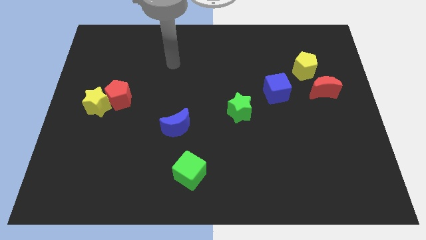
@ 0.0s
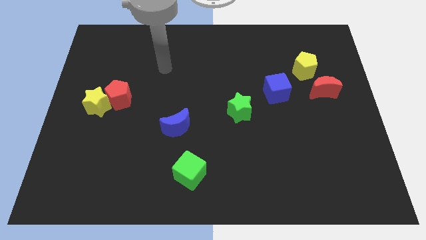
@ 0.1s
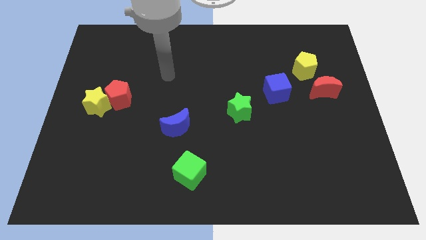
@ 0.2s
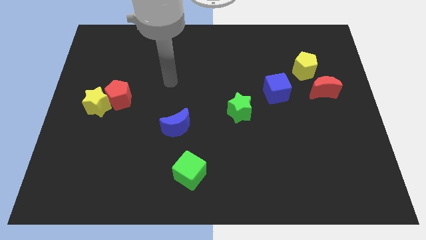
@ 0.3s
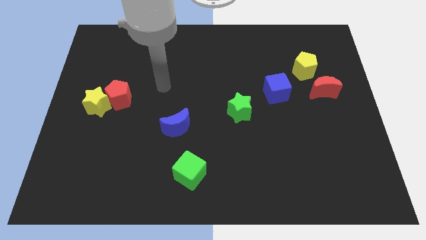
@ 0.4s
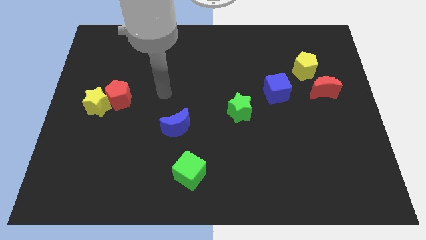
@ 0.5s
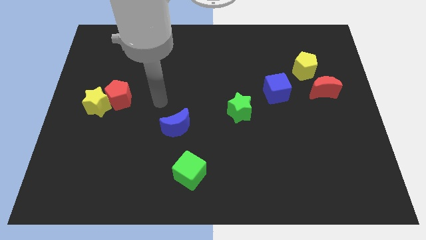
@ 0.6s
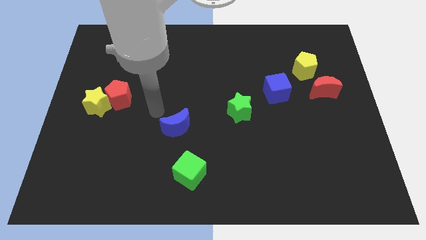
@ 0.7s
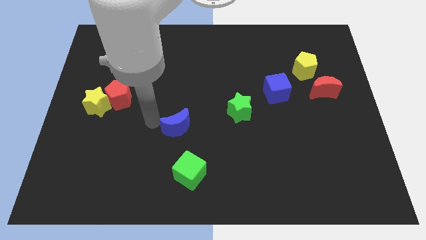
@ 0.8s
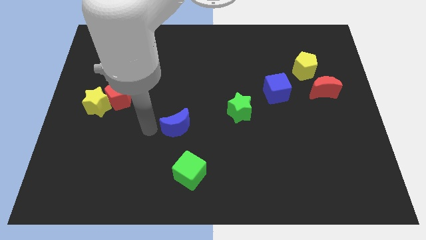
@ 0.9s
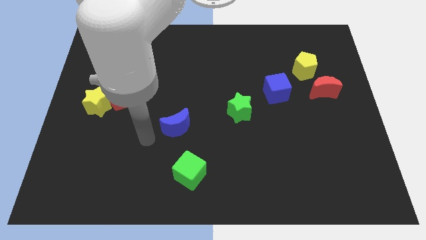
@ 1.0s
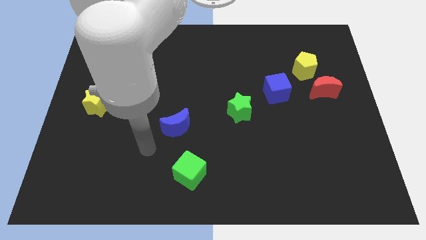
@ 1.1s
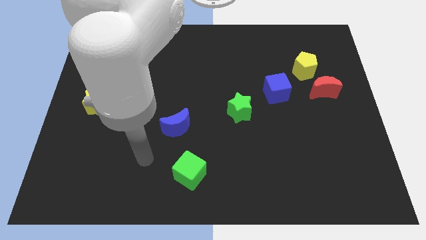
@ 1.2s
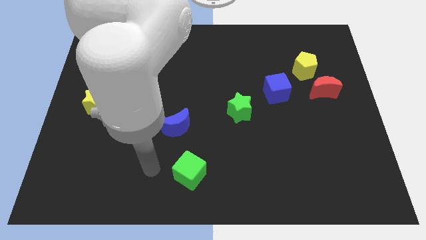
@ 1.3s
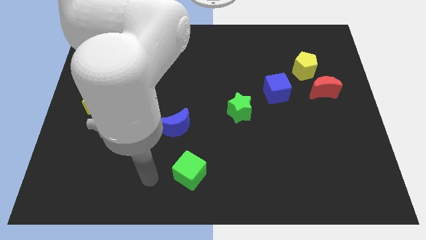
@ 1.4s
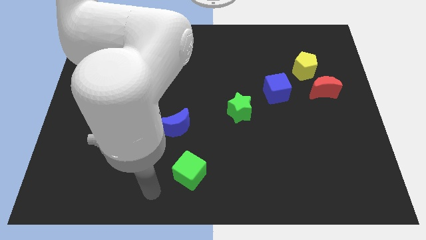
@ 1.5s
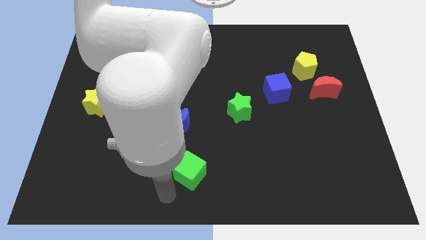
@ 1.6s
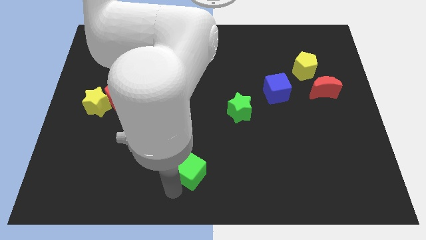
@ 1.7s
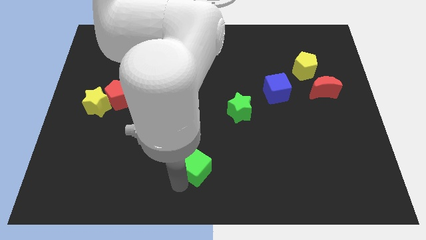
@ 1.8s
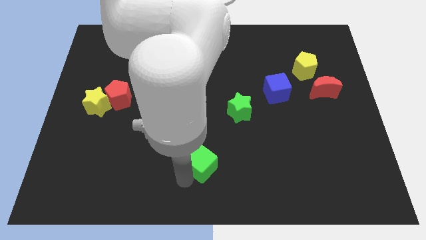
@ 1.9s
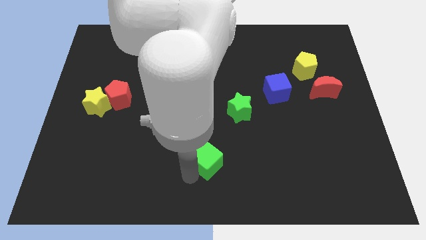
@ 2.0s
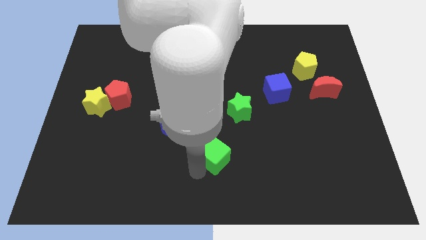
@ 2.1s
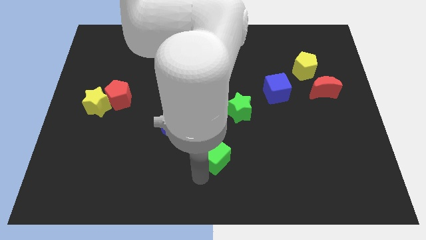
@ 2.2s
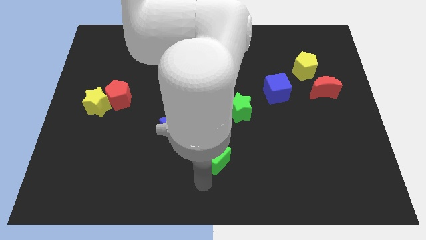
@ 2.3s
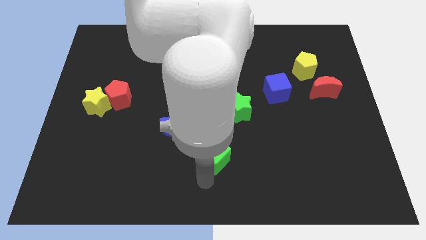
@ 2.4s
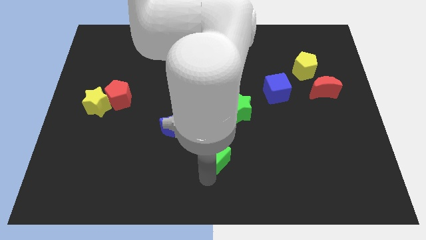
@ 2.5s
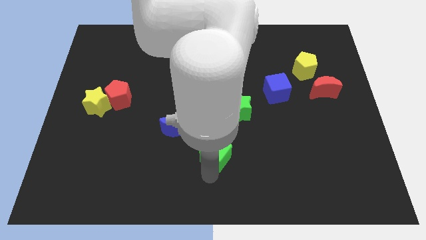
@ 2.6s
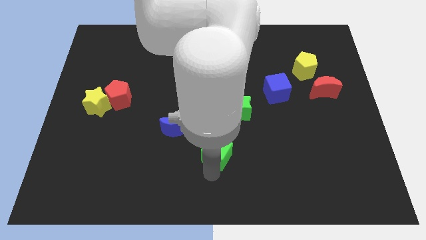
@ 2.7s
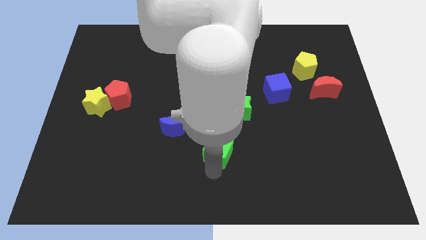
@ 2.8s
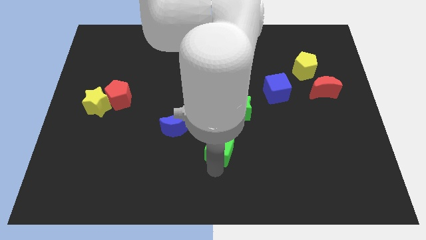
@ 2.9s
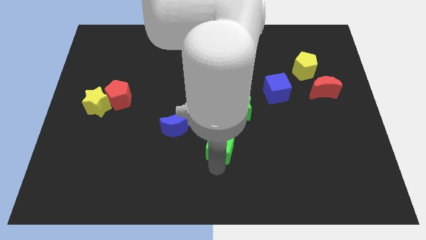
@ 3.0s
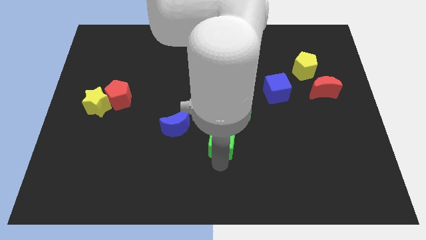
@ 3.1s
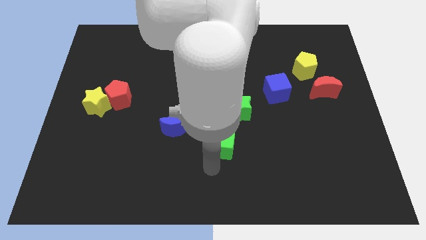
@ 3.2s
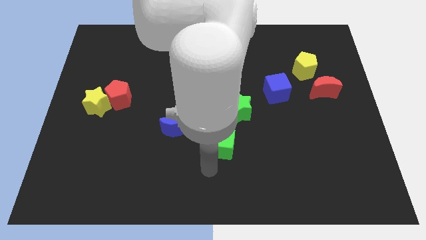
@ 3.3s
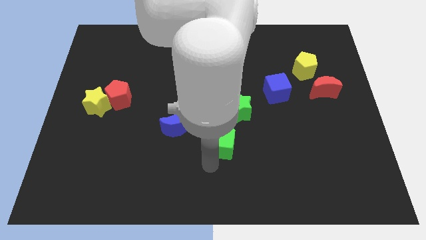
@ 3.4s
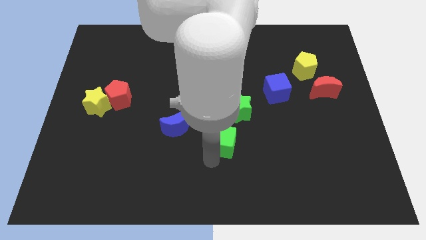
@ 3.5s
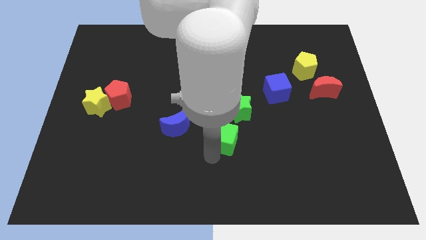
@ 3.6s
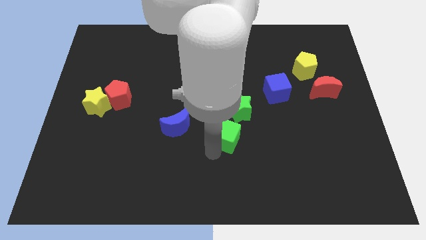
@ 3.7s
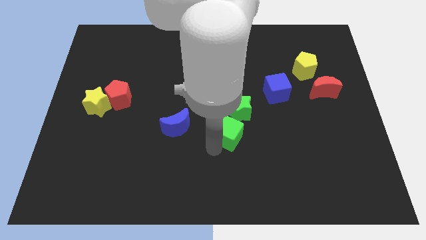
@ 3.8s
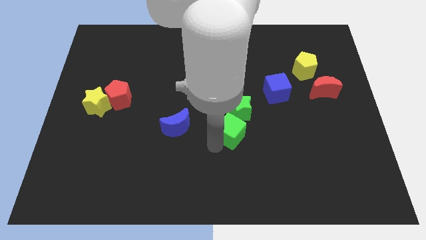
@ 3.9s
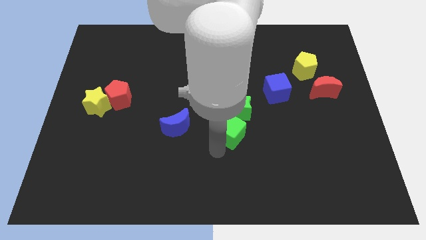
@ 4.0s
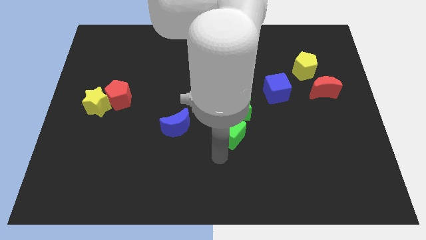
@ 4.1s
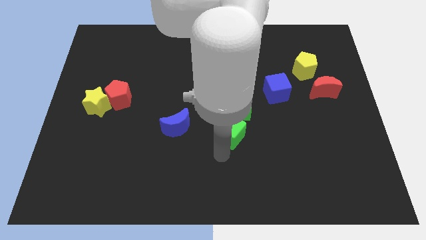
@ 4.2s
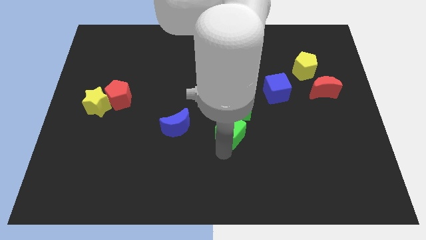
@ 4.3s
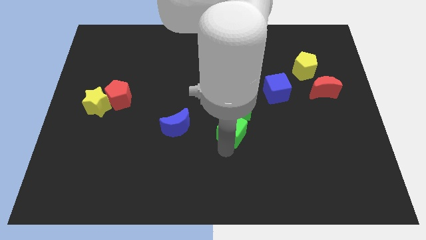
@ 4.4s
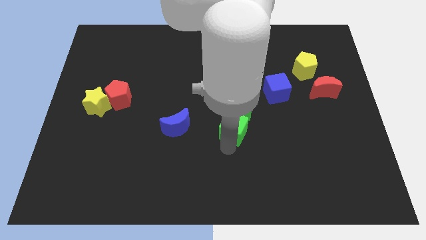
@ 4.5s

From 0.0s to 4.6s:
push the green cube to the green star

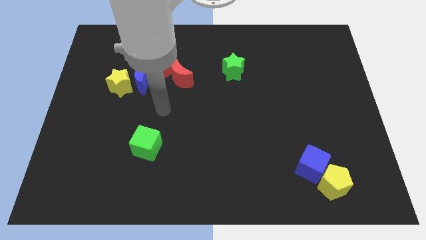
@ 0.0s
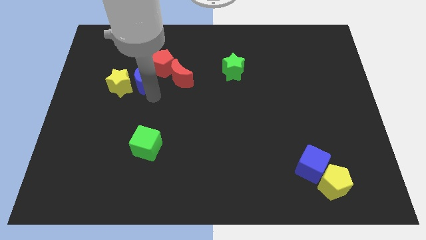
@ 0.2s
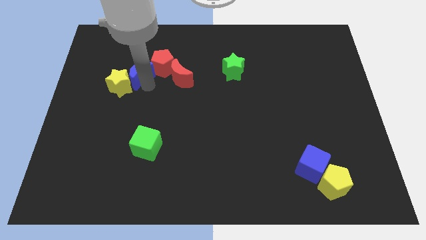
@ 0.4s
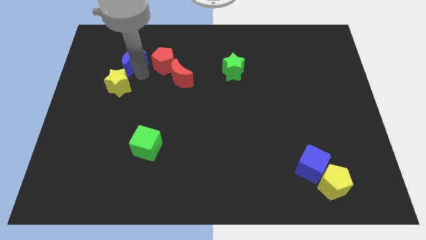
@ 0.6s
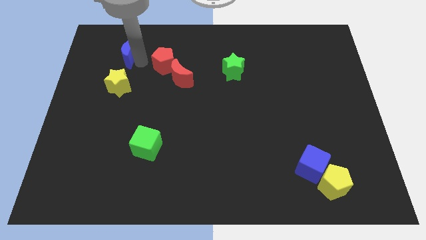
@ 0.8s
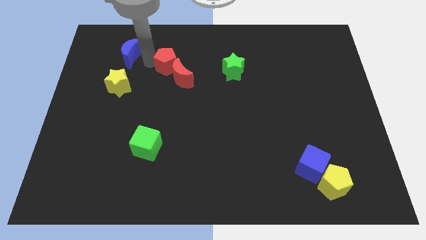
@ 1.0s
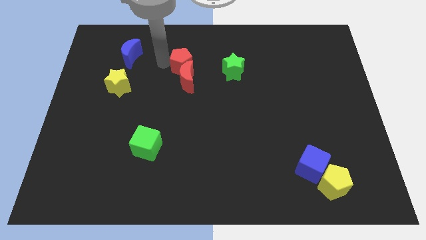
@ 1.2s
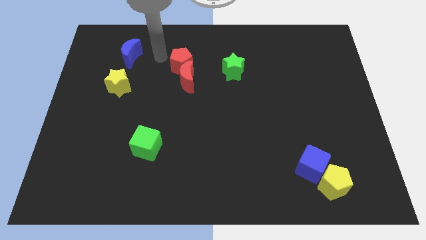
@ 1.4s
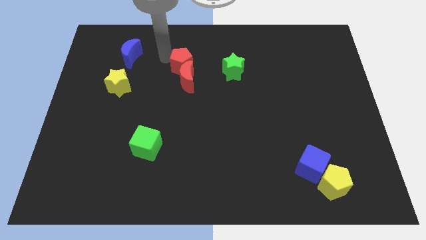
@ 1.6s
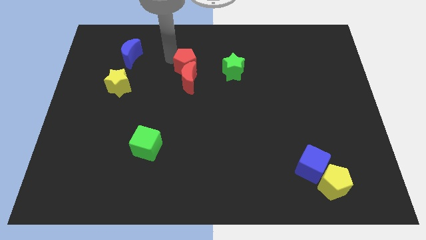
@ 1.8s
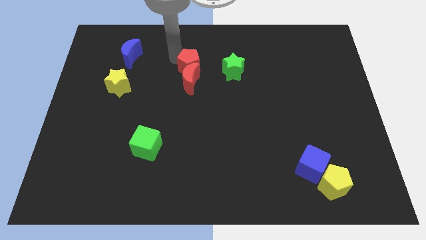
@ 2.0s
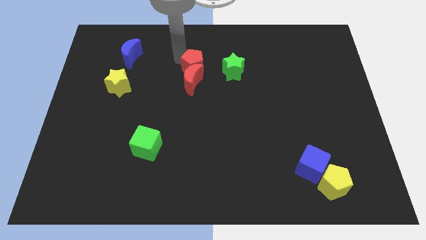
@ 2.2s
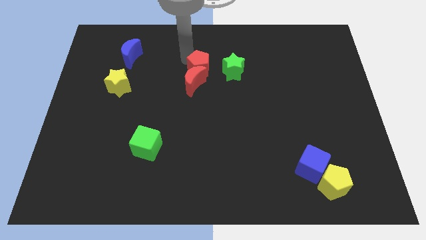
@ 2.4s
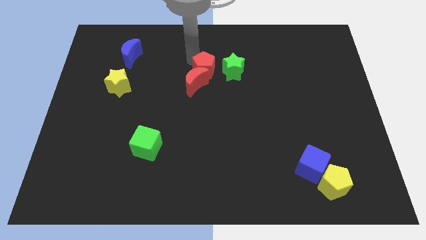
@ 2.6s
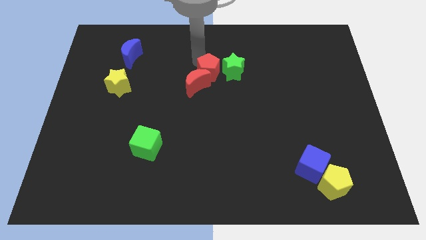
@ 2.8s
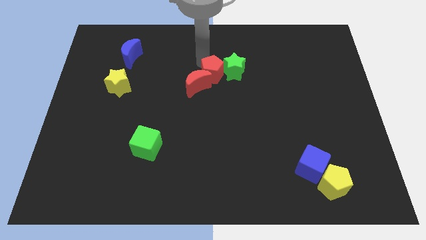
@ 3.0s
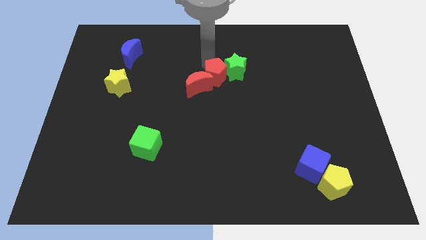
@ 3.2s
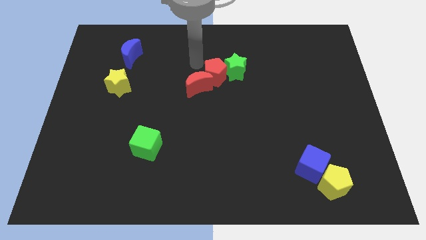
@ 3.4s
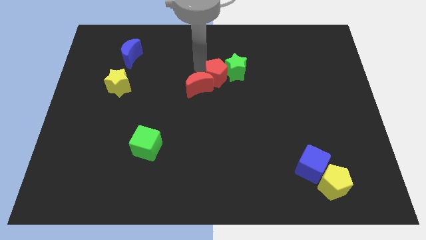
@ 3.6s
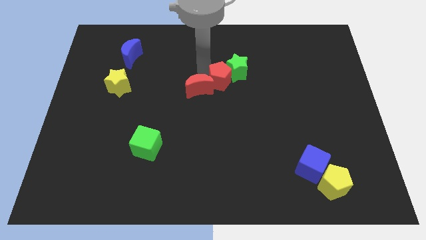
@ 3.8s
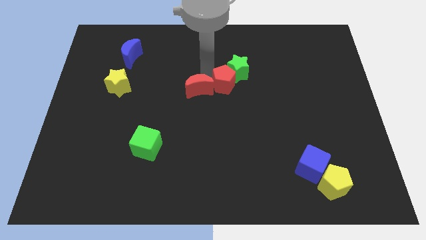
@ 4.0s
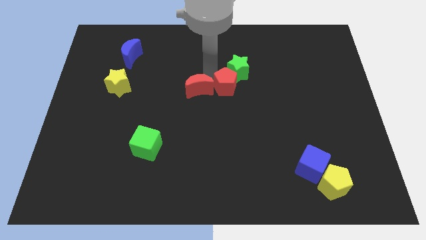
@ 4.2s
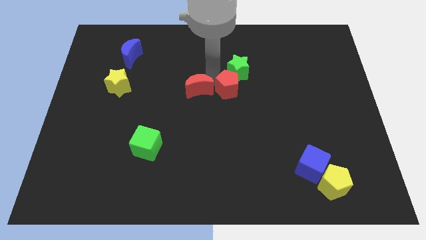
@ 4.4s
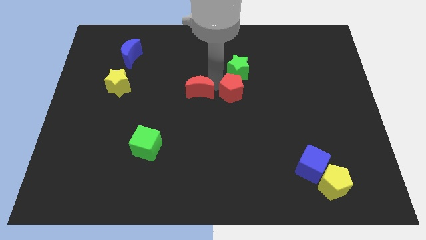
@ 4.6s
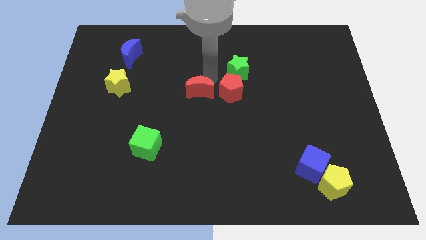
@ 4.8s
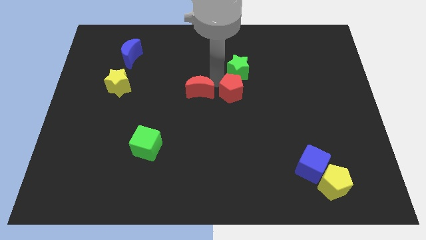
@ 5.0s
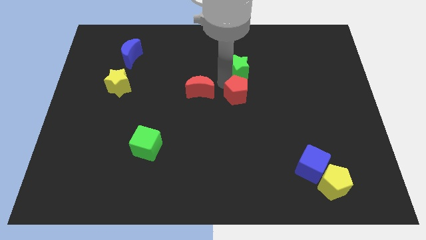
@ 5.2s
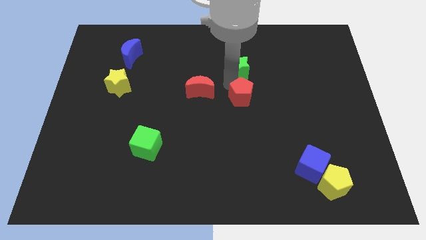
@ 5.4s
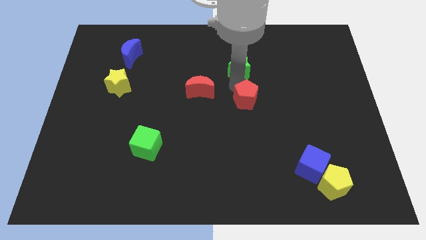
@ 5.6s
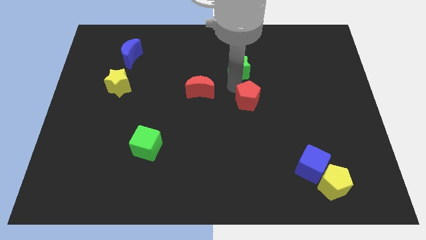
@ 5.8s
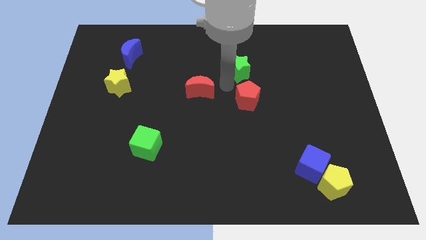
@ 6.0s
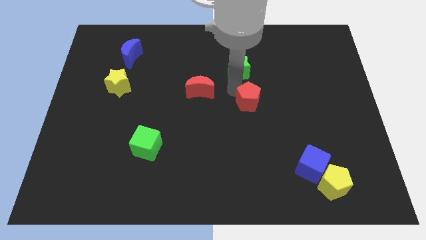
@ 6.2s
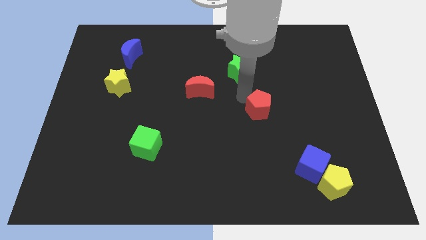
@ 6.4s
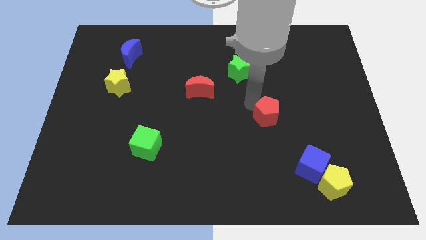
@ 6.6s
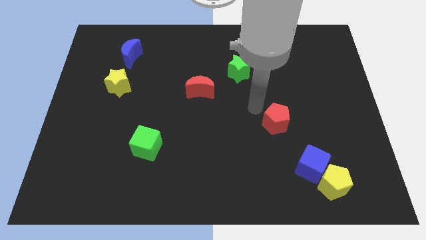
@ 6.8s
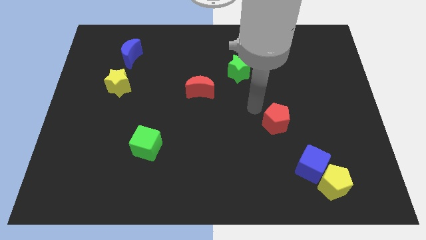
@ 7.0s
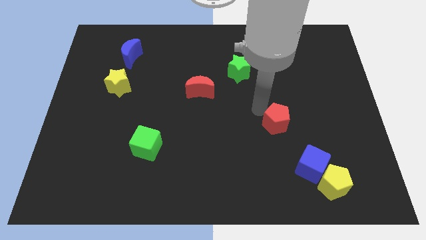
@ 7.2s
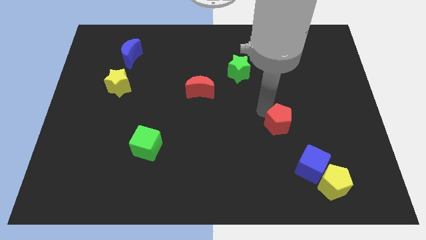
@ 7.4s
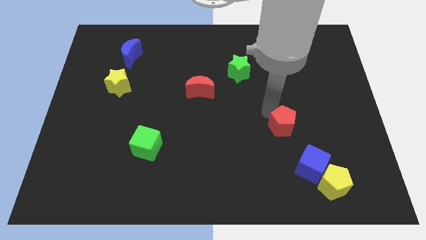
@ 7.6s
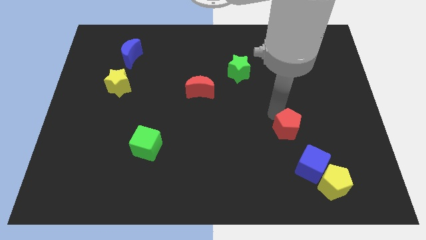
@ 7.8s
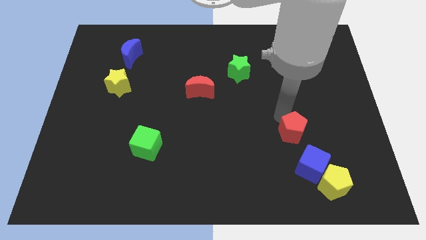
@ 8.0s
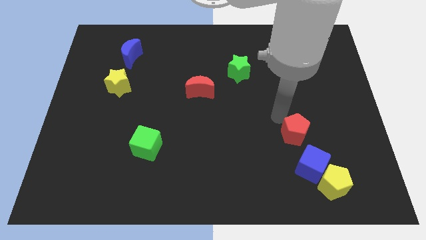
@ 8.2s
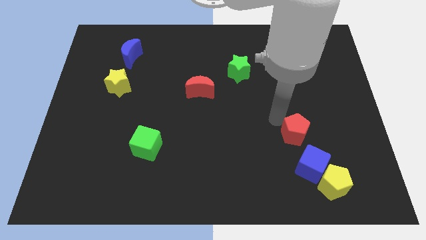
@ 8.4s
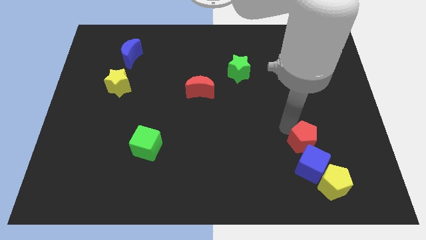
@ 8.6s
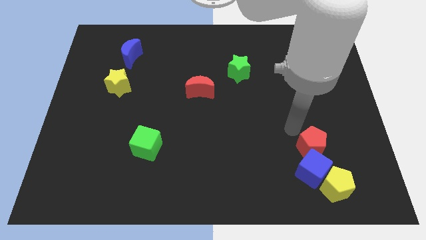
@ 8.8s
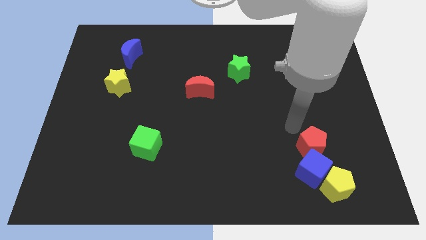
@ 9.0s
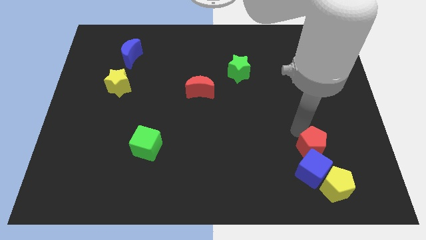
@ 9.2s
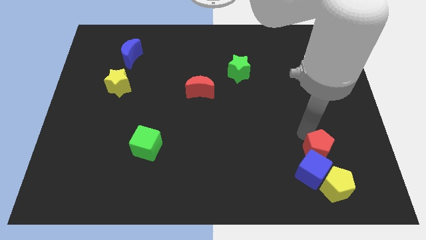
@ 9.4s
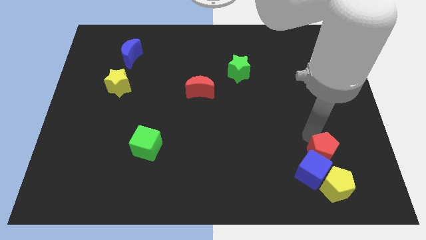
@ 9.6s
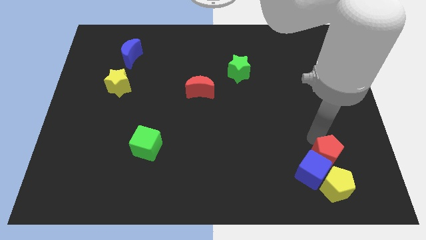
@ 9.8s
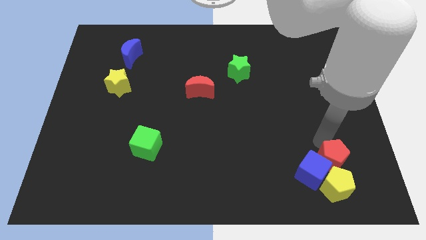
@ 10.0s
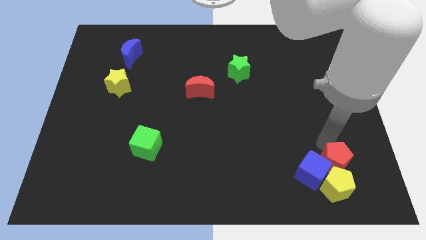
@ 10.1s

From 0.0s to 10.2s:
push the red pentagon close to the yellow pentagon
